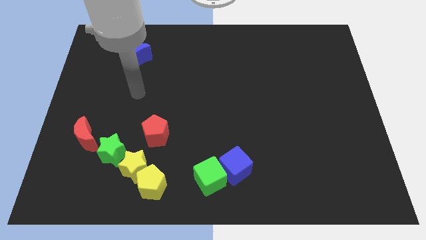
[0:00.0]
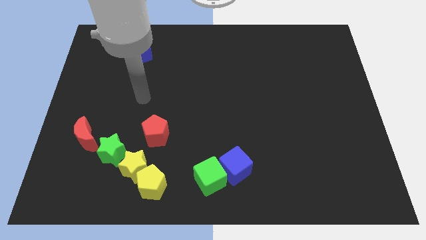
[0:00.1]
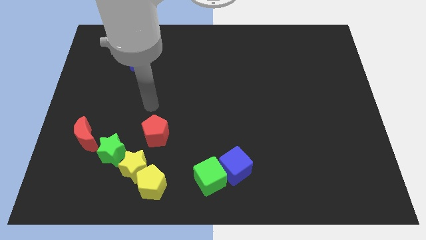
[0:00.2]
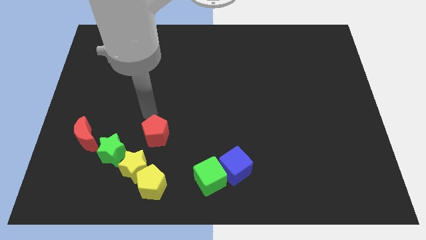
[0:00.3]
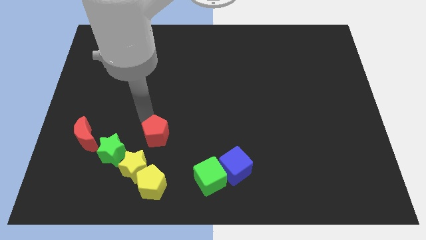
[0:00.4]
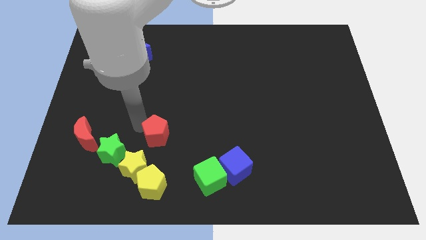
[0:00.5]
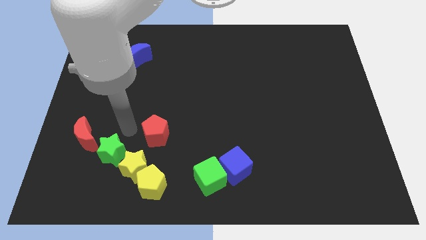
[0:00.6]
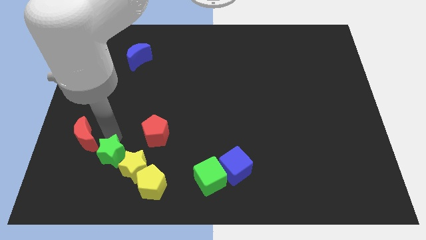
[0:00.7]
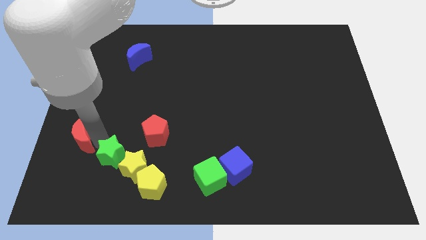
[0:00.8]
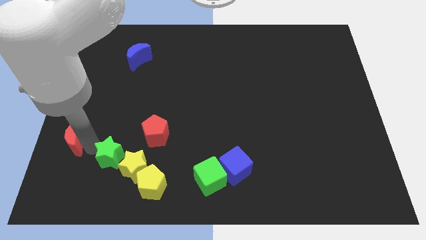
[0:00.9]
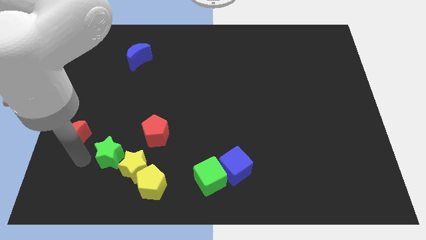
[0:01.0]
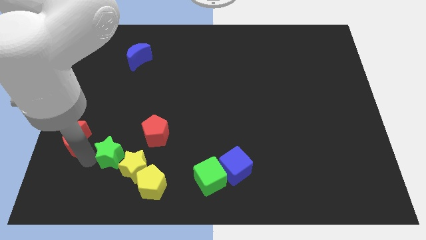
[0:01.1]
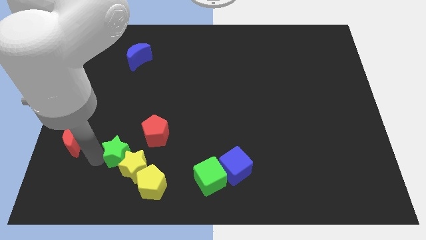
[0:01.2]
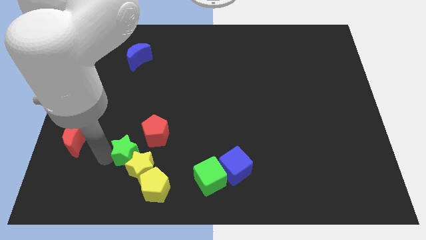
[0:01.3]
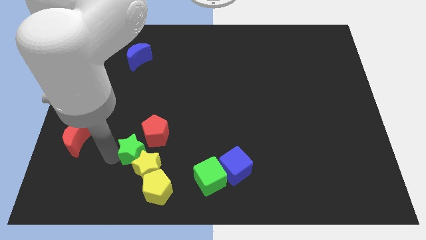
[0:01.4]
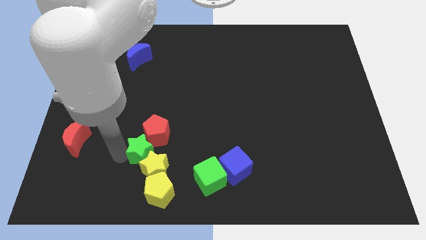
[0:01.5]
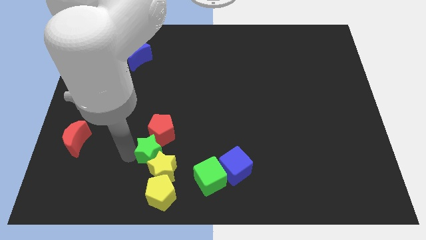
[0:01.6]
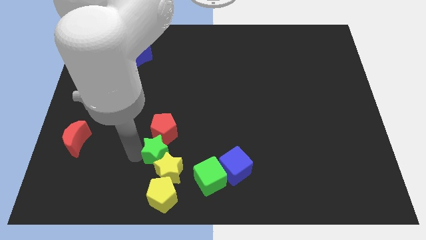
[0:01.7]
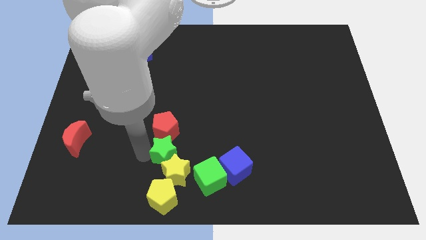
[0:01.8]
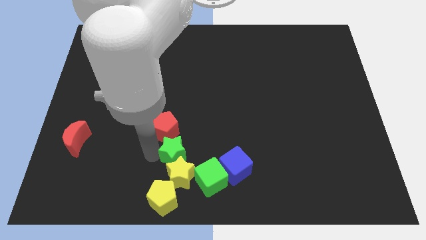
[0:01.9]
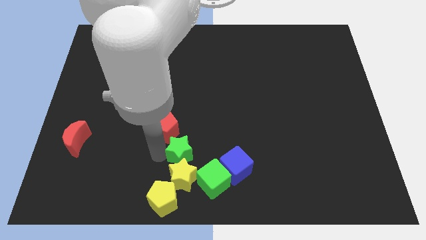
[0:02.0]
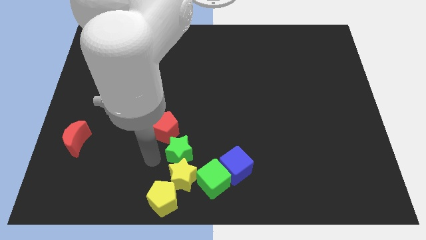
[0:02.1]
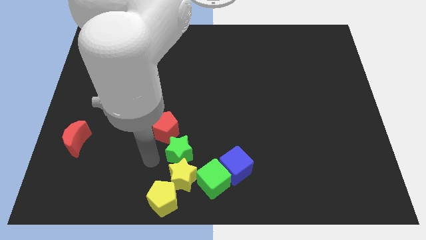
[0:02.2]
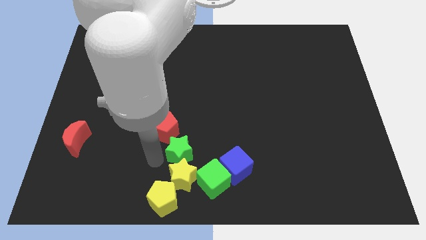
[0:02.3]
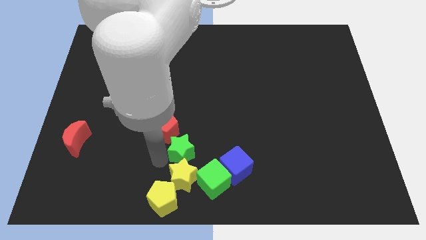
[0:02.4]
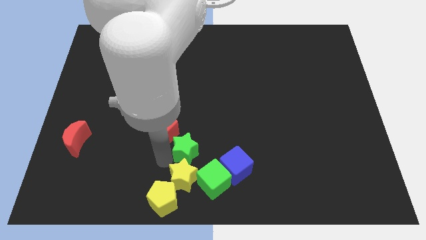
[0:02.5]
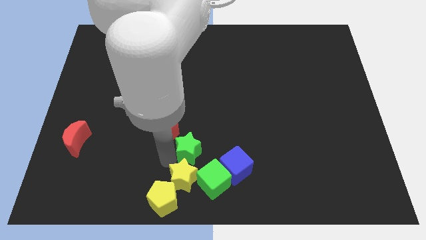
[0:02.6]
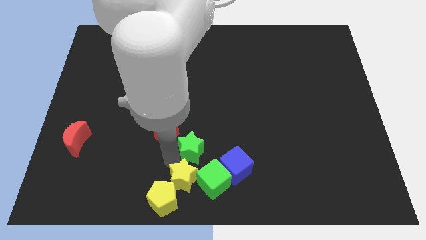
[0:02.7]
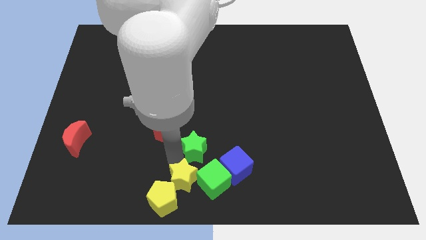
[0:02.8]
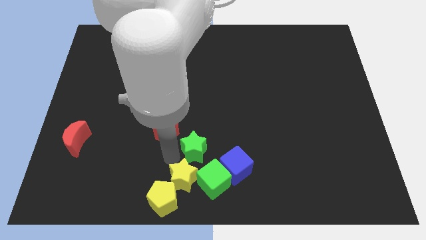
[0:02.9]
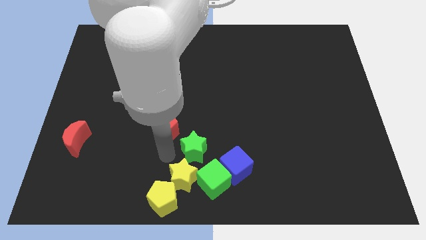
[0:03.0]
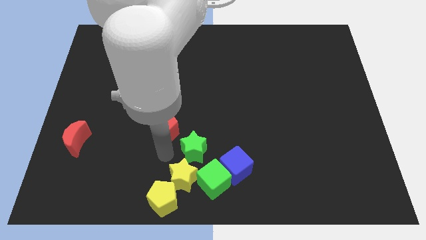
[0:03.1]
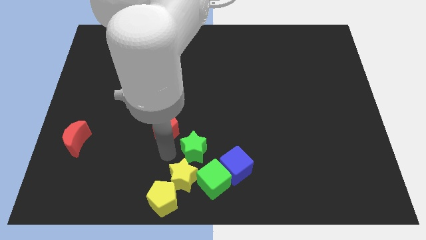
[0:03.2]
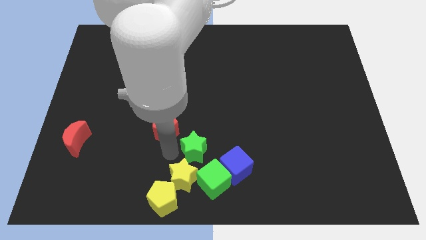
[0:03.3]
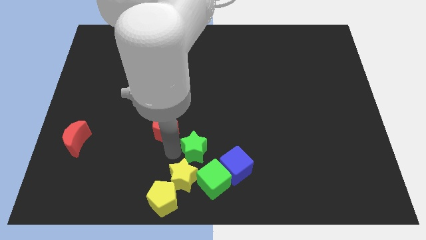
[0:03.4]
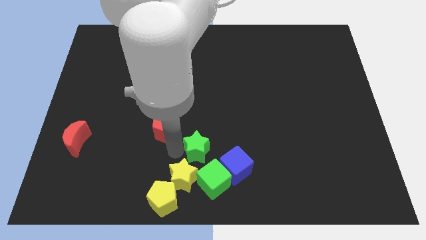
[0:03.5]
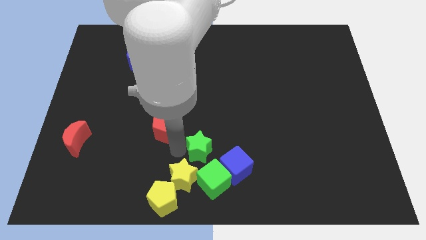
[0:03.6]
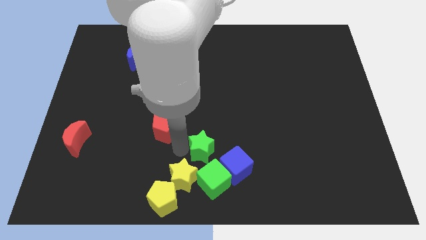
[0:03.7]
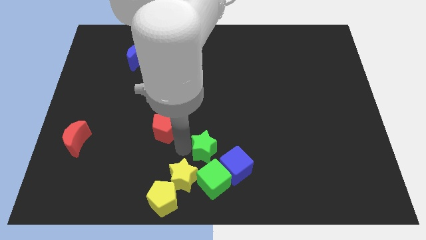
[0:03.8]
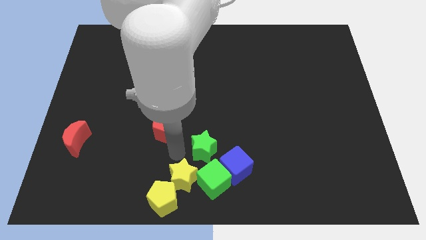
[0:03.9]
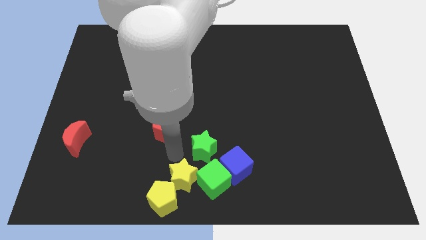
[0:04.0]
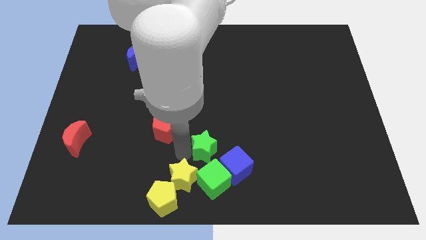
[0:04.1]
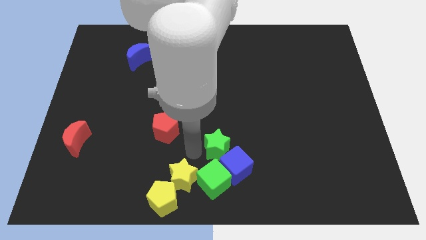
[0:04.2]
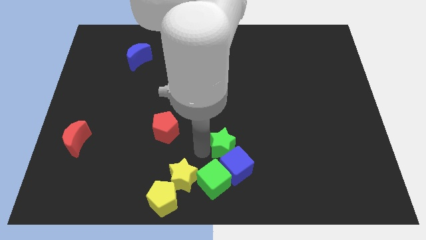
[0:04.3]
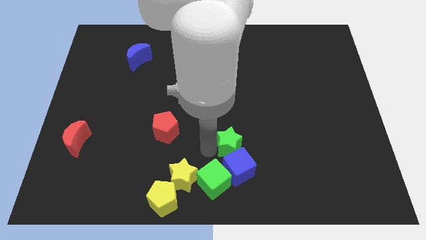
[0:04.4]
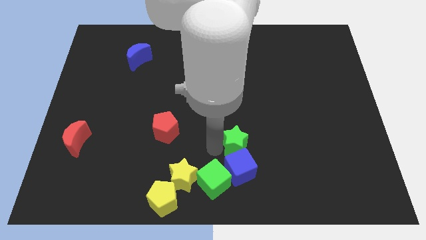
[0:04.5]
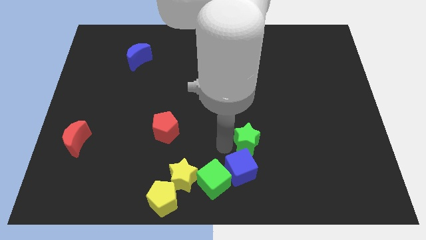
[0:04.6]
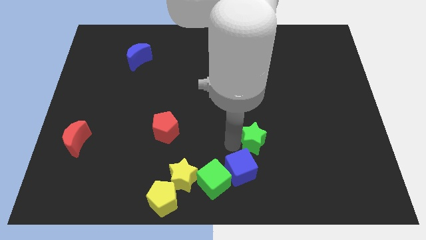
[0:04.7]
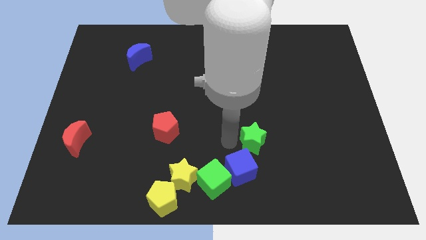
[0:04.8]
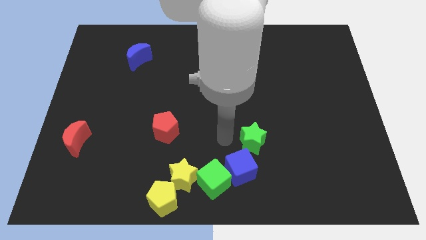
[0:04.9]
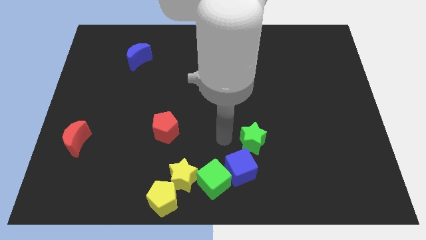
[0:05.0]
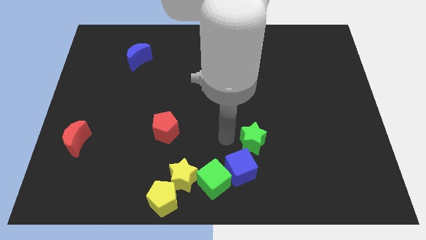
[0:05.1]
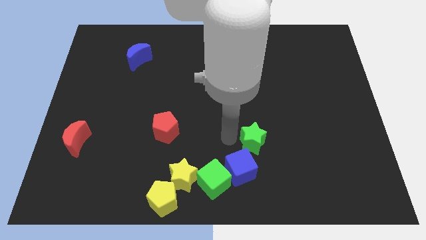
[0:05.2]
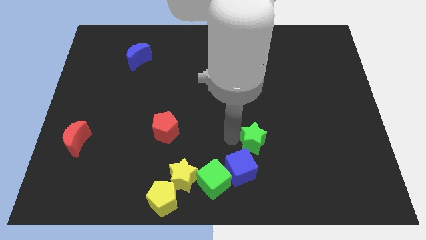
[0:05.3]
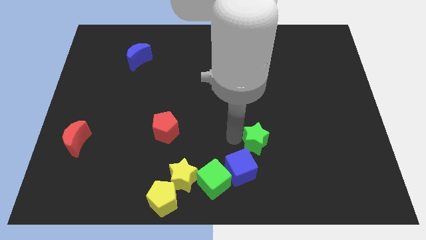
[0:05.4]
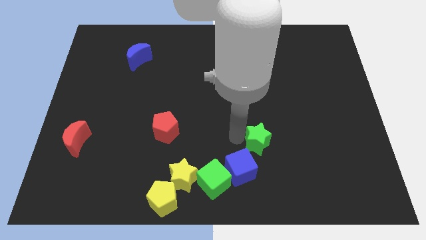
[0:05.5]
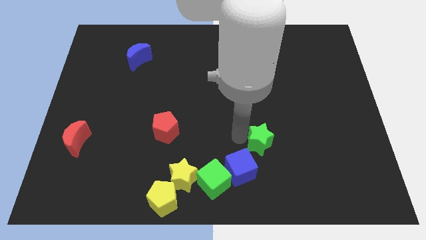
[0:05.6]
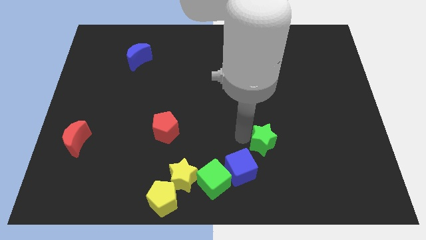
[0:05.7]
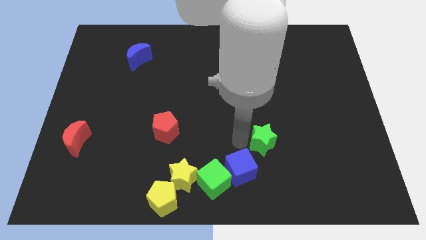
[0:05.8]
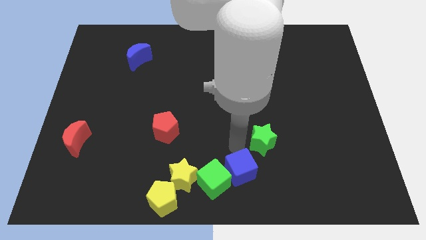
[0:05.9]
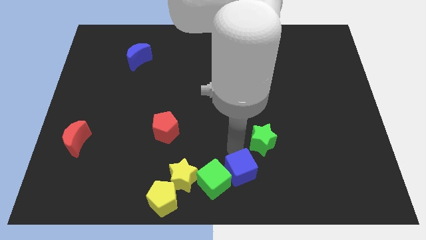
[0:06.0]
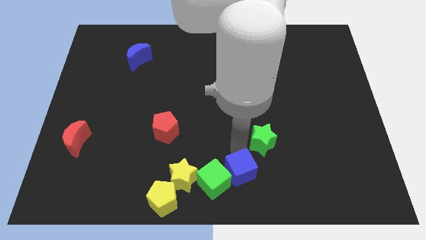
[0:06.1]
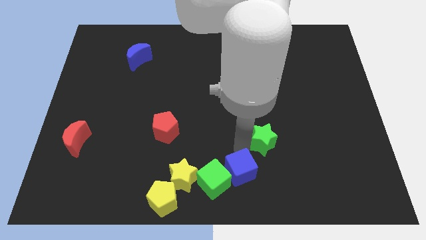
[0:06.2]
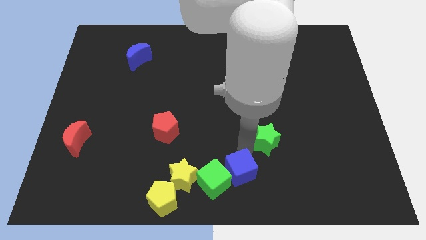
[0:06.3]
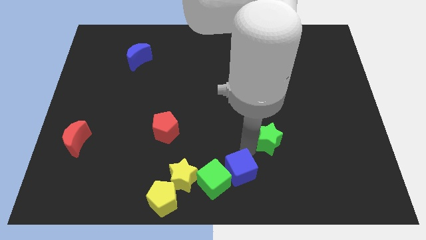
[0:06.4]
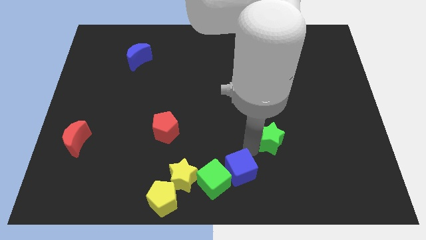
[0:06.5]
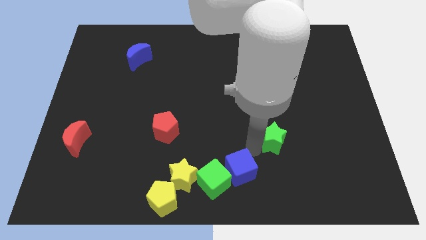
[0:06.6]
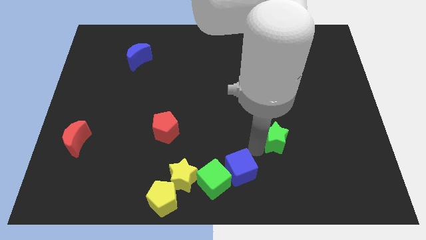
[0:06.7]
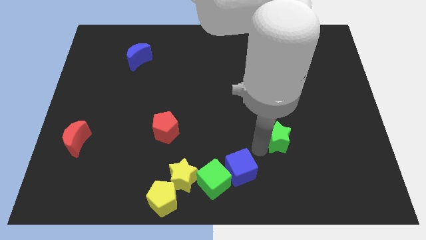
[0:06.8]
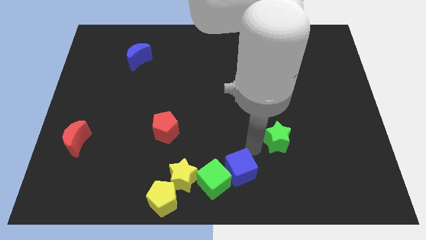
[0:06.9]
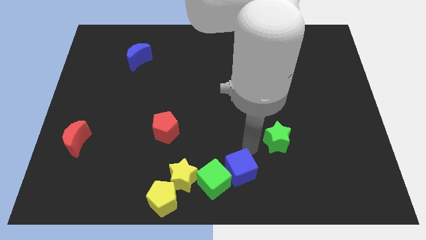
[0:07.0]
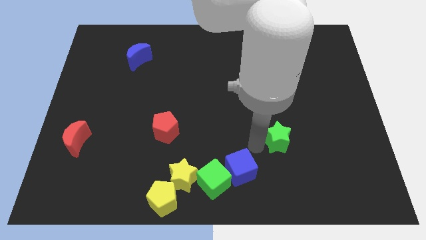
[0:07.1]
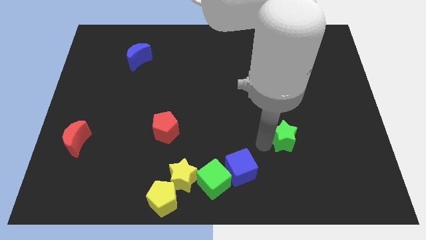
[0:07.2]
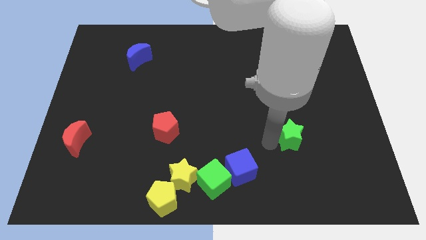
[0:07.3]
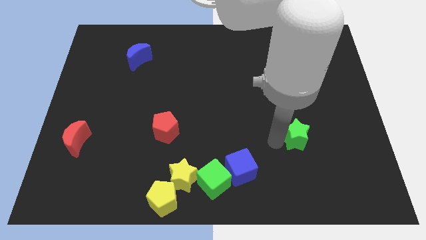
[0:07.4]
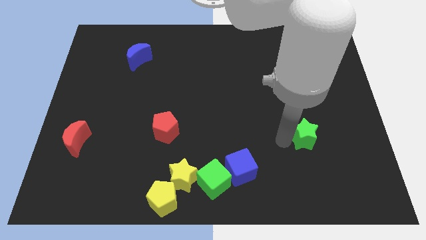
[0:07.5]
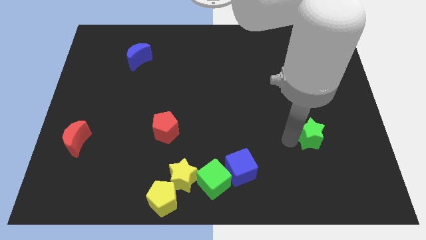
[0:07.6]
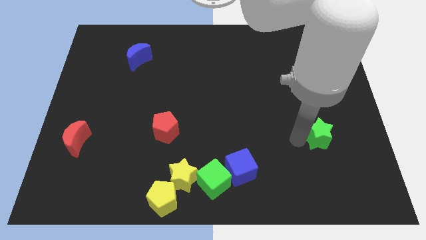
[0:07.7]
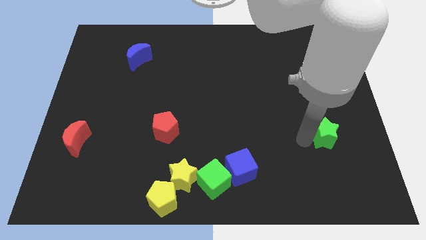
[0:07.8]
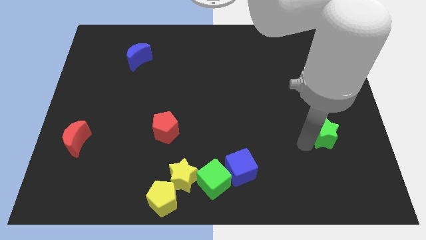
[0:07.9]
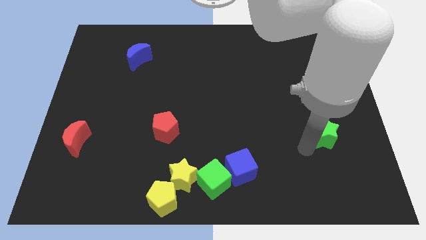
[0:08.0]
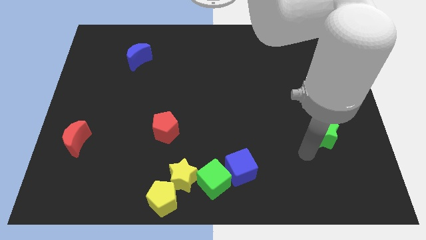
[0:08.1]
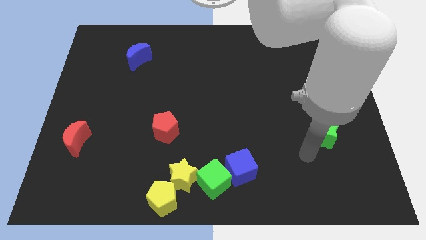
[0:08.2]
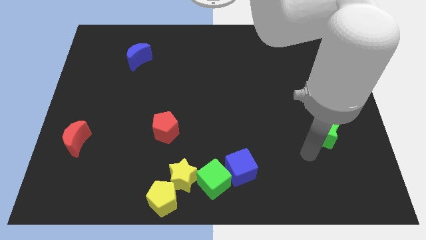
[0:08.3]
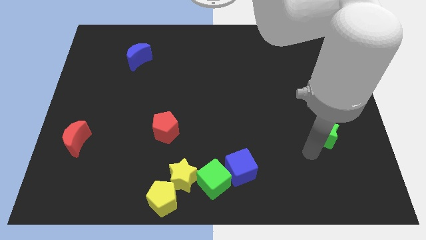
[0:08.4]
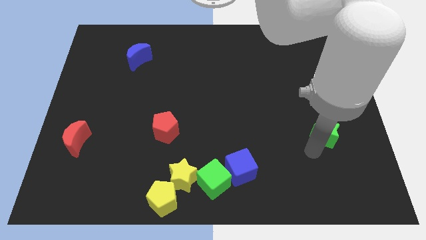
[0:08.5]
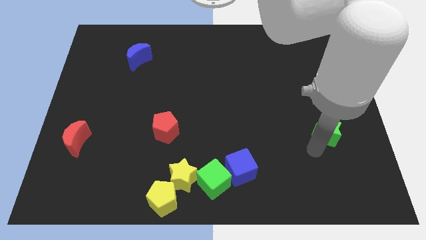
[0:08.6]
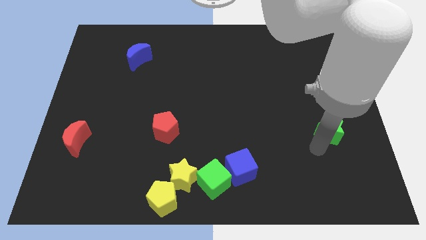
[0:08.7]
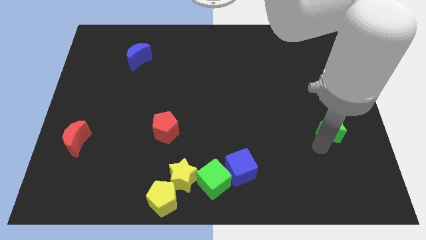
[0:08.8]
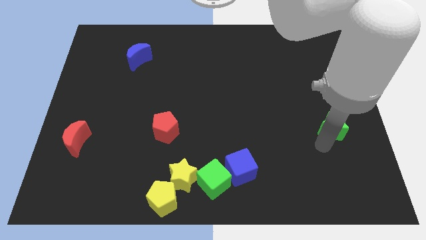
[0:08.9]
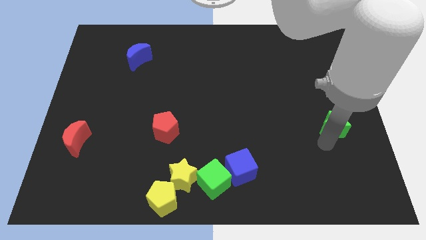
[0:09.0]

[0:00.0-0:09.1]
push the green star to the right side of the board
